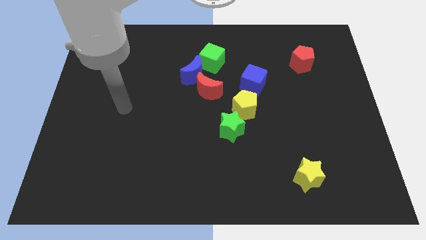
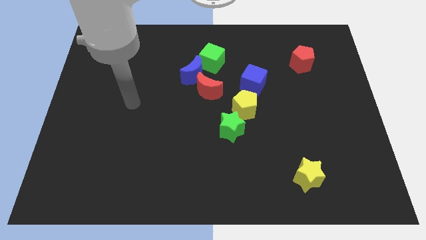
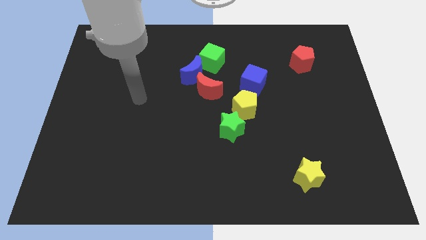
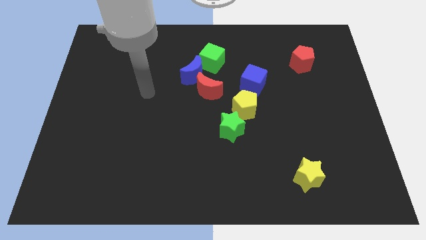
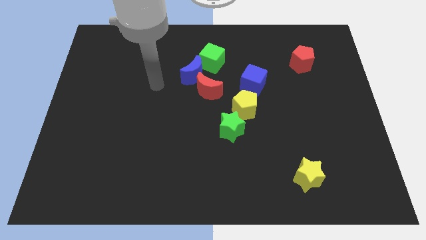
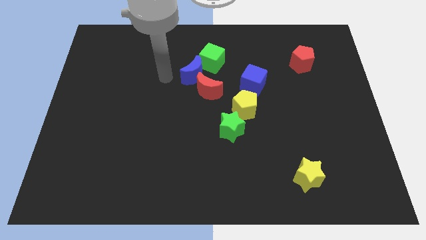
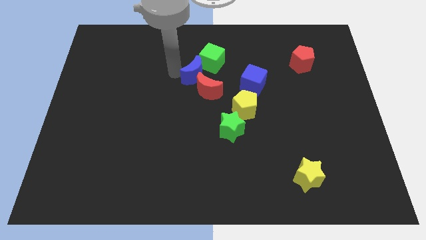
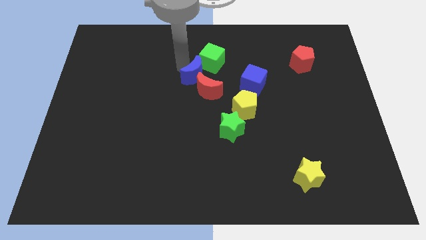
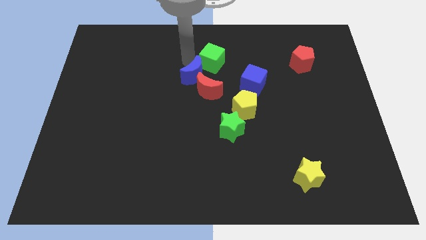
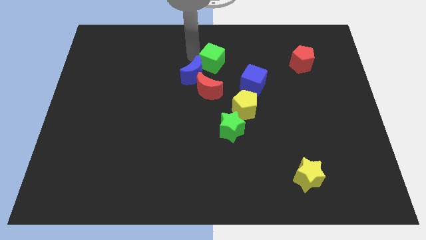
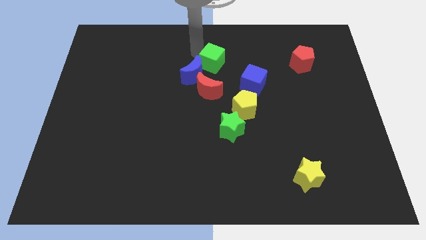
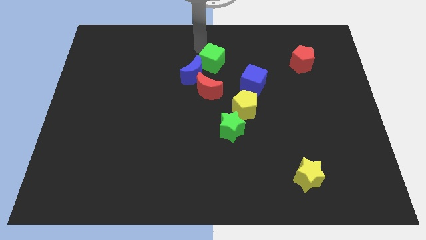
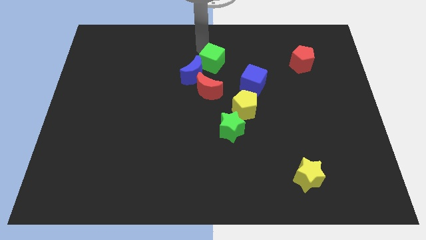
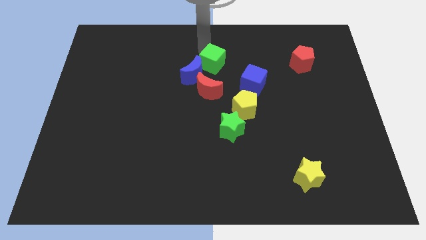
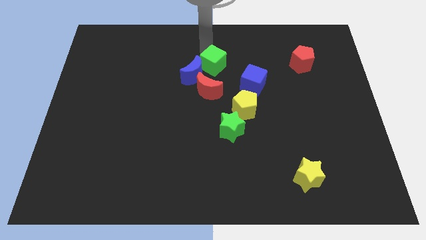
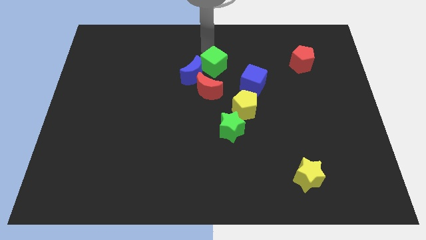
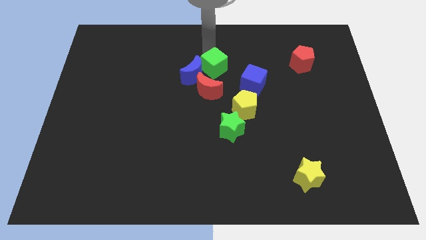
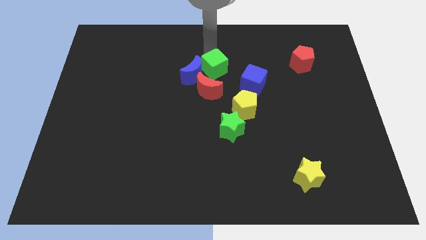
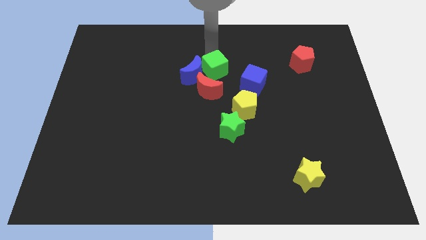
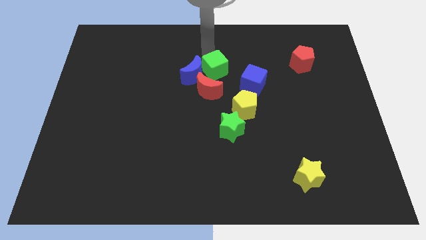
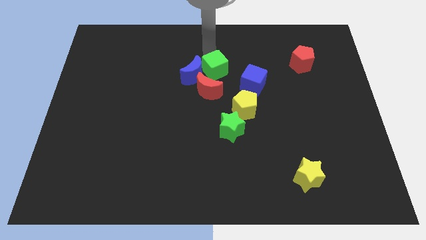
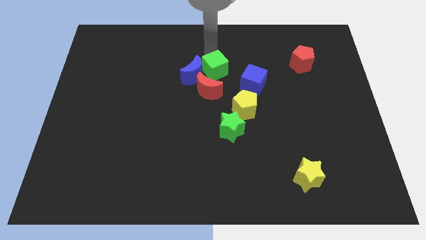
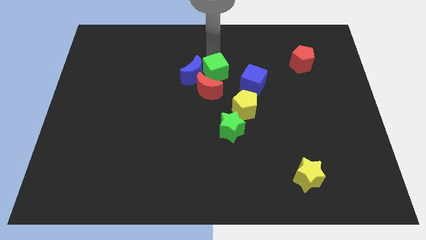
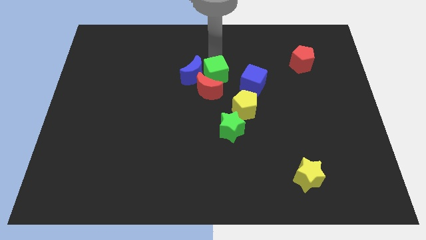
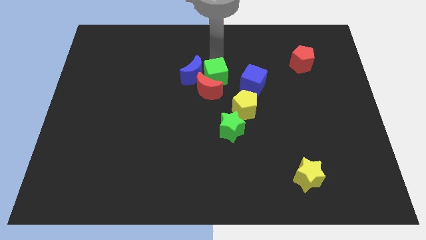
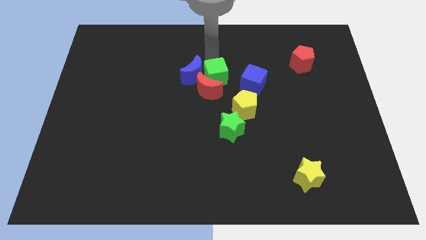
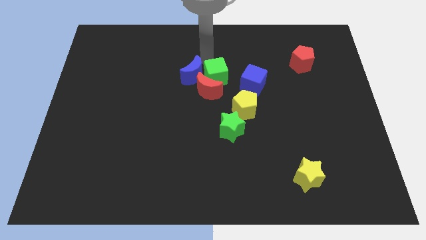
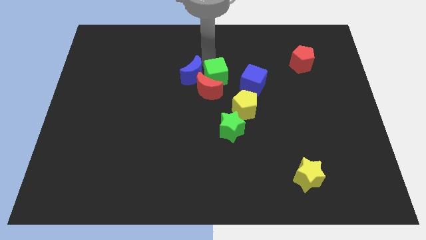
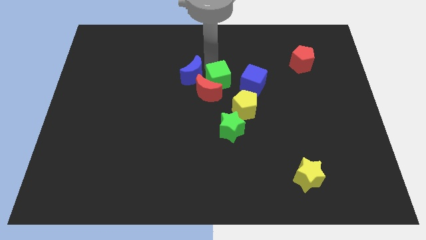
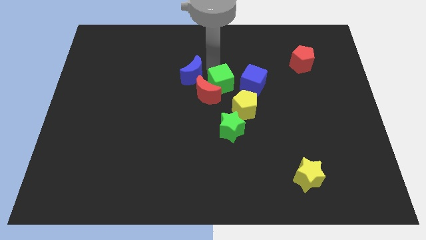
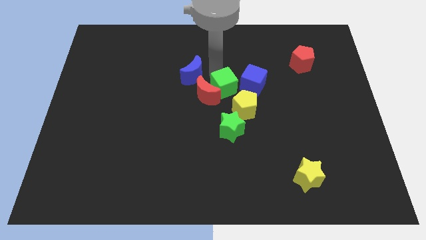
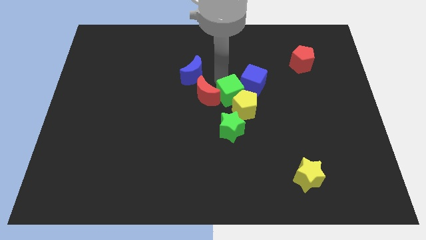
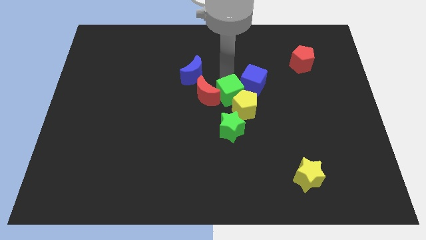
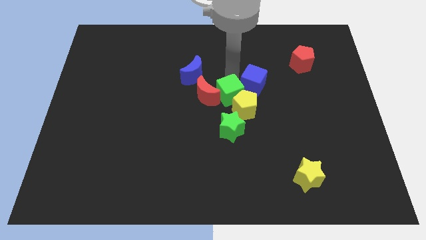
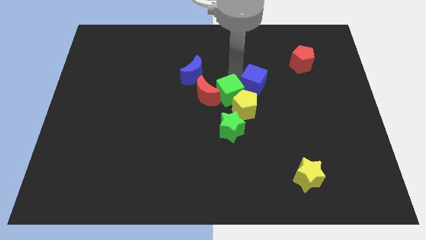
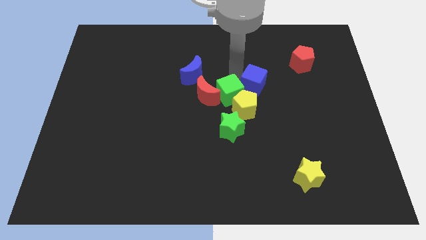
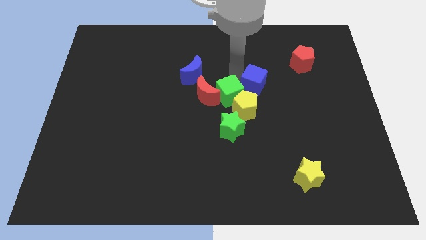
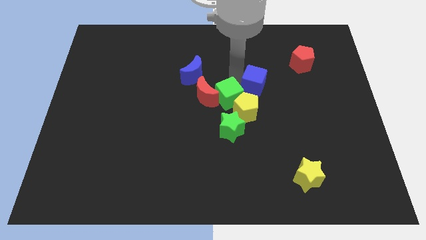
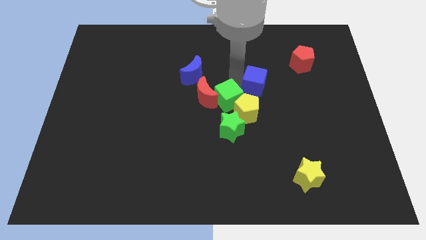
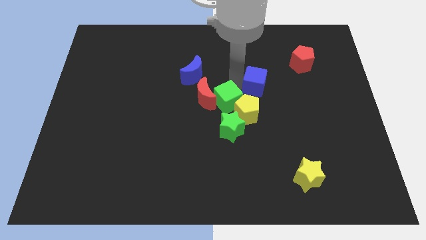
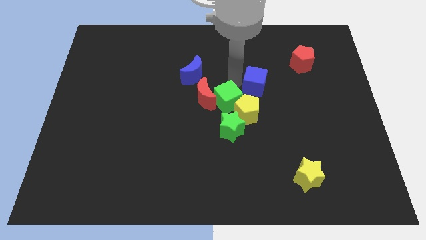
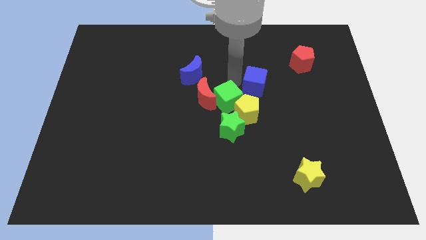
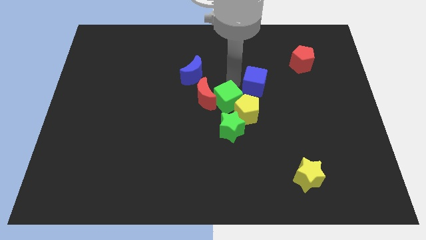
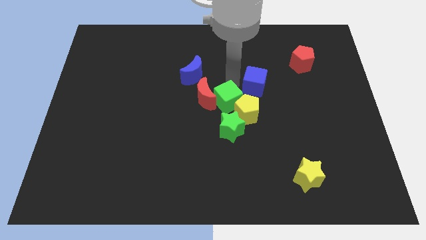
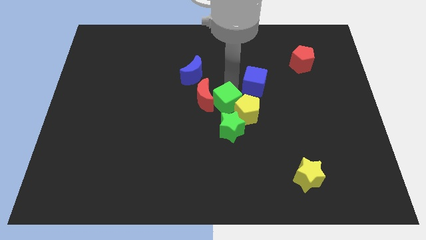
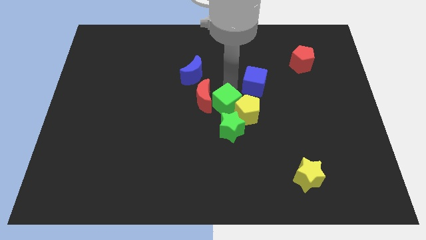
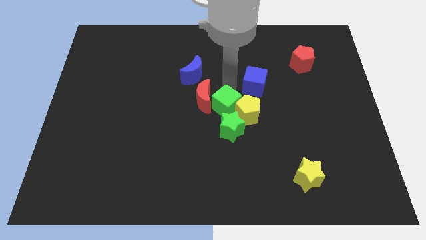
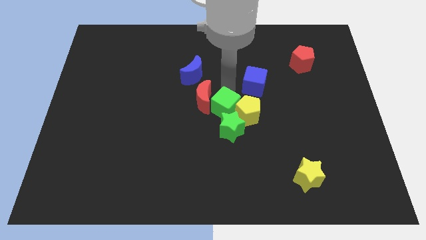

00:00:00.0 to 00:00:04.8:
move the green cube close to the green star

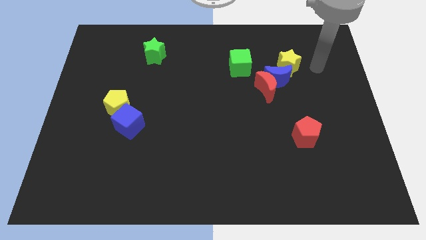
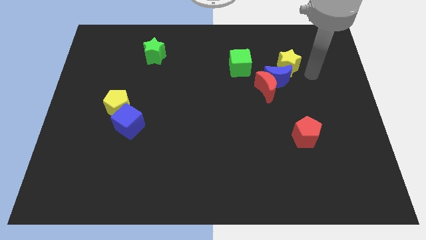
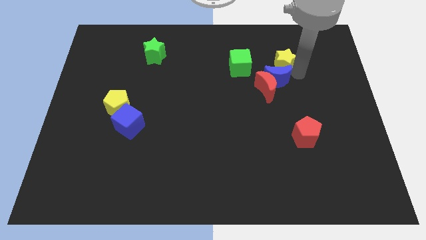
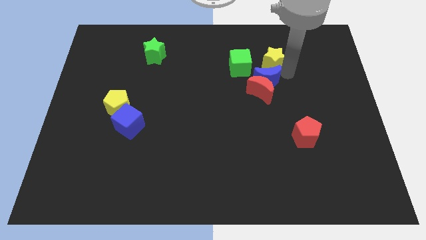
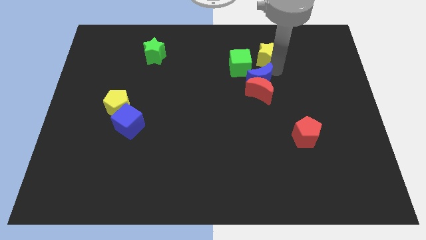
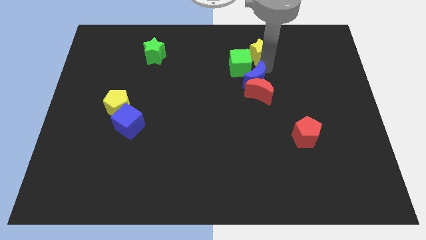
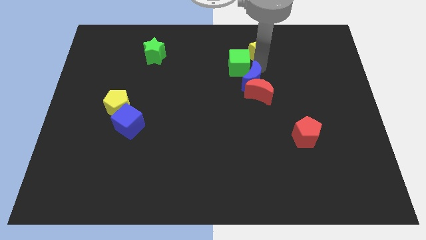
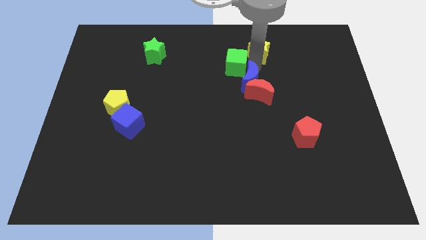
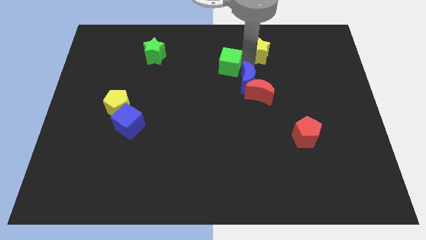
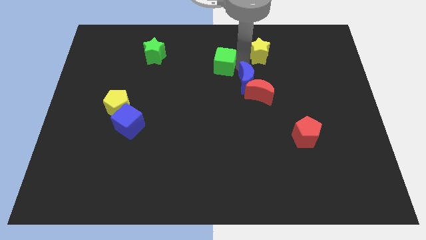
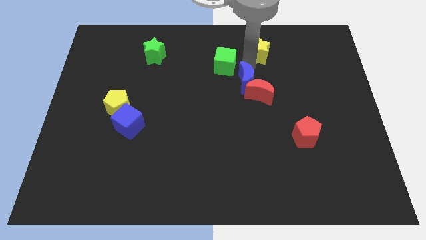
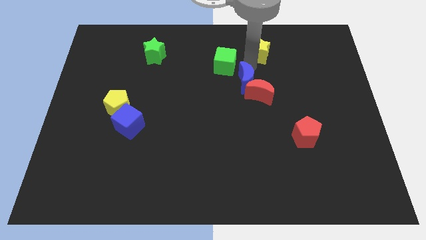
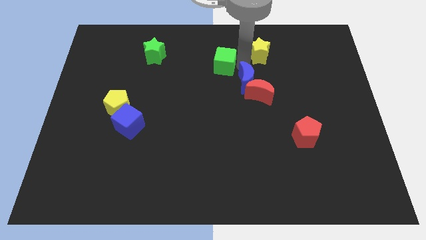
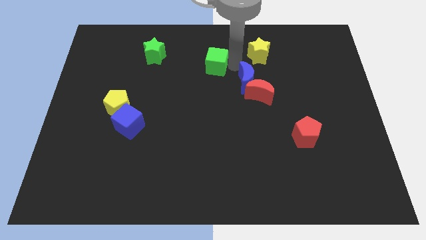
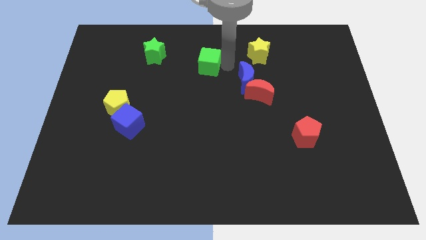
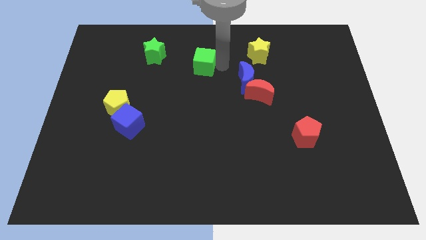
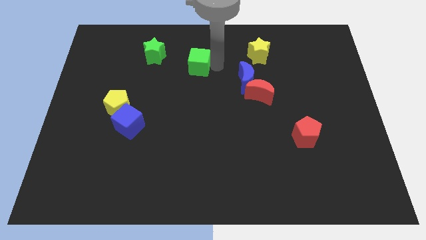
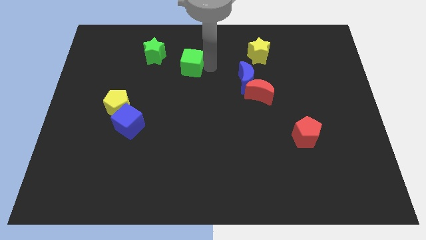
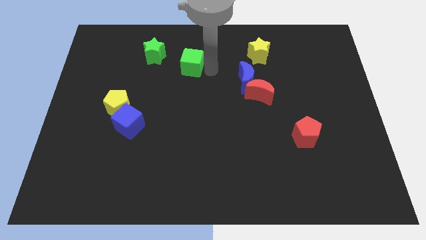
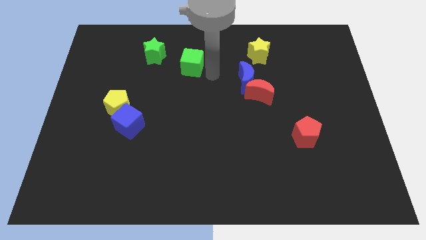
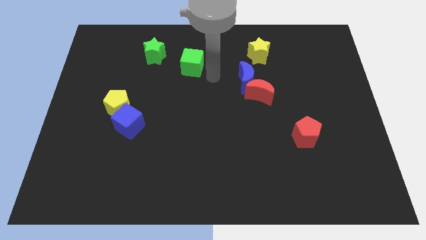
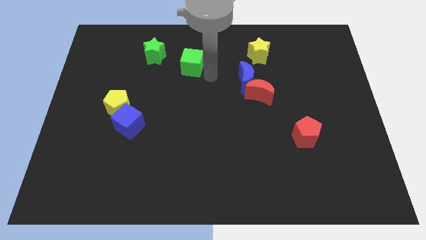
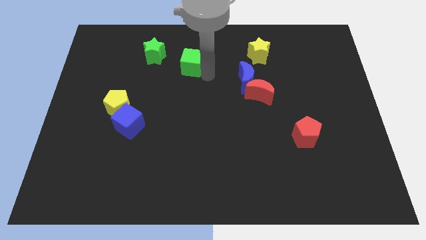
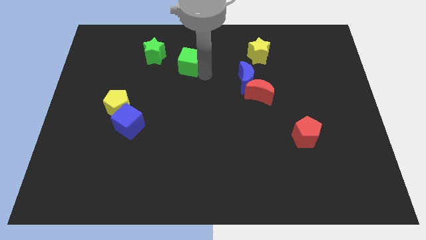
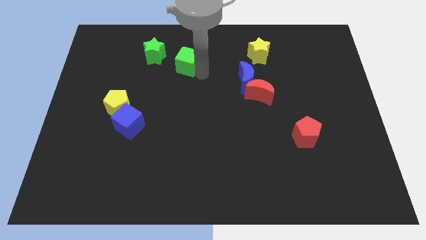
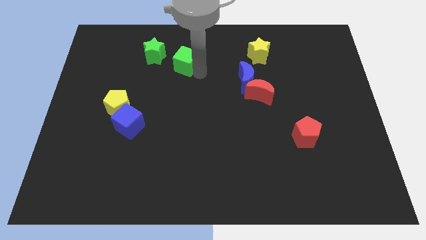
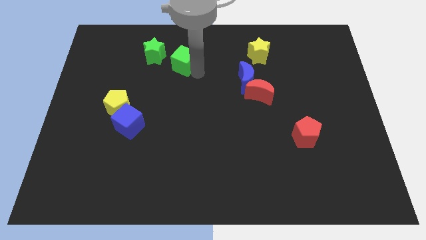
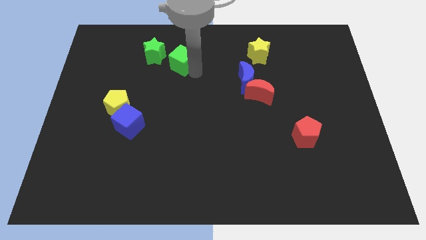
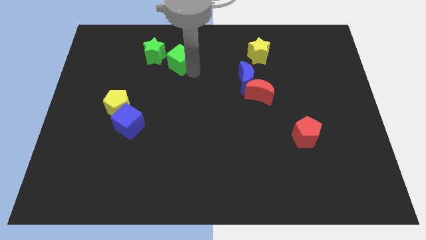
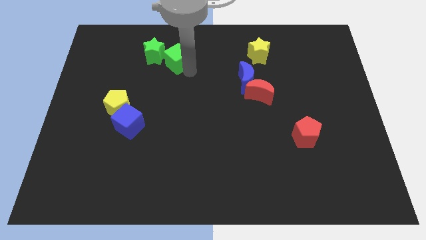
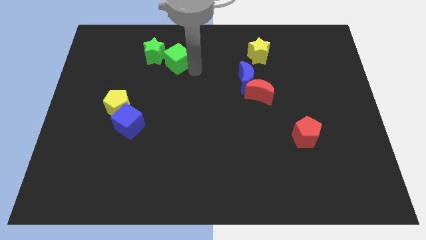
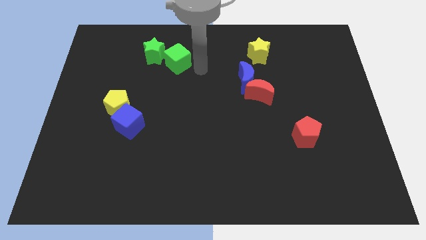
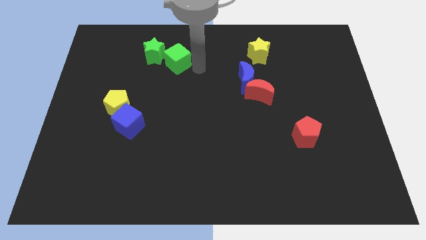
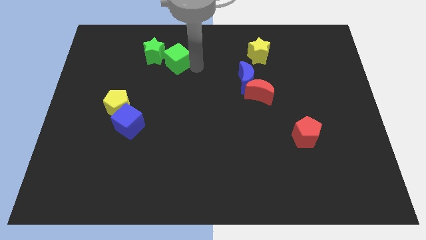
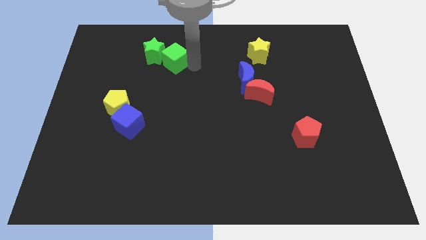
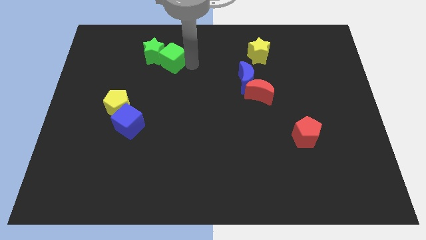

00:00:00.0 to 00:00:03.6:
push the green cube next to the green star
